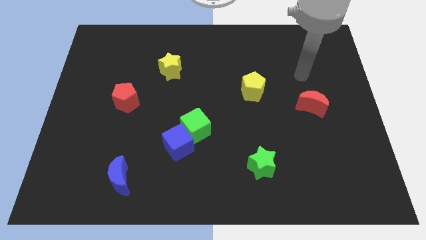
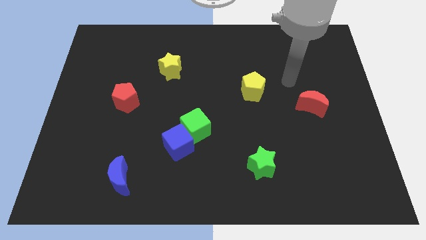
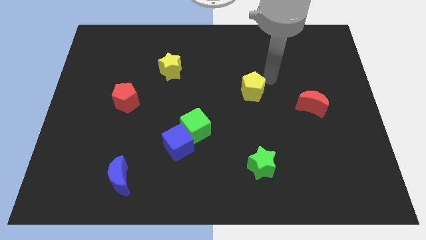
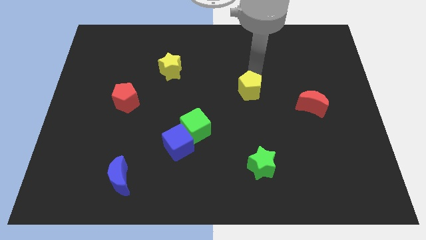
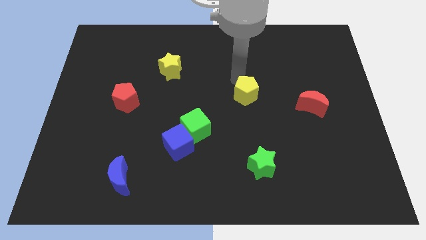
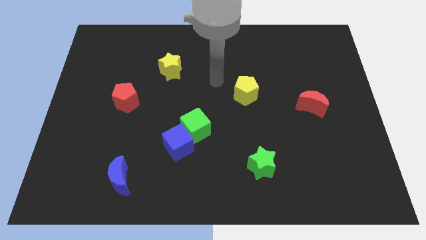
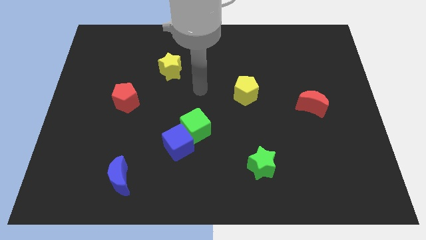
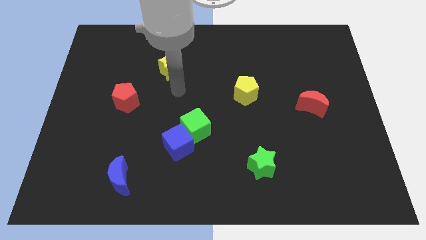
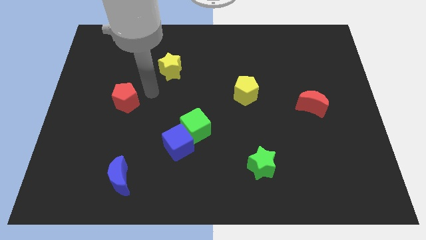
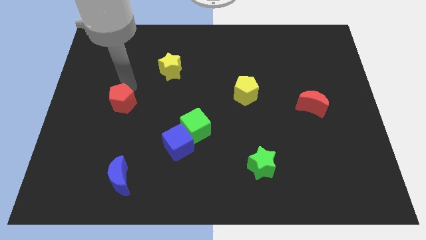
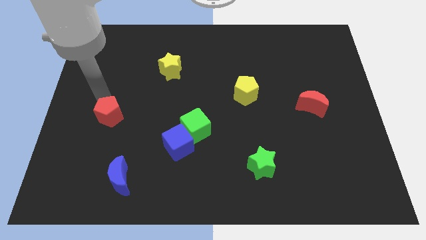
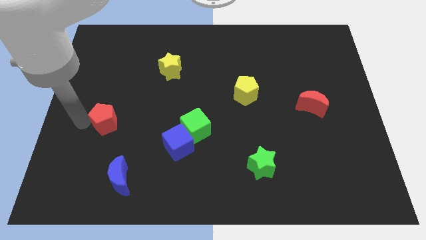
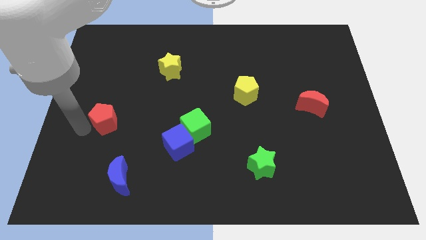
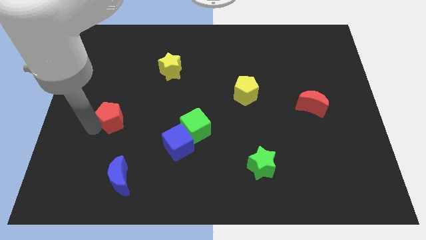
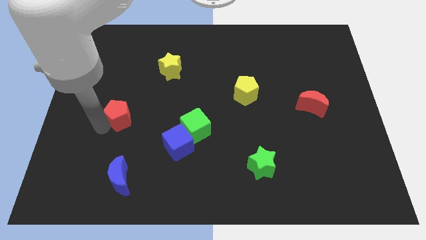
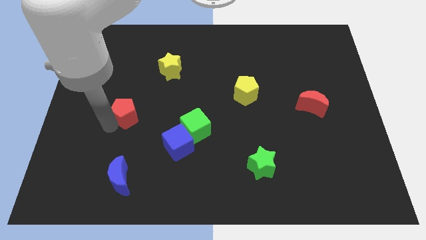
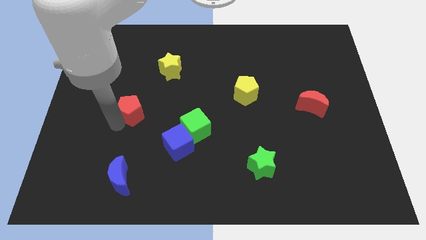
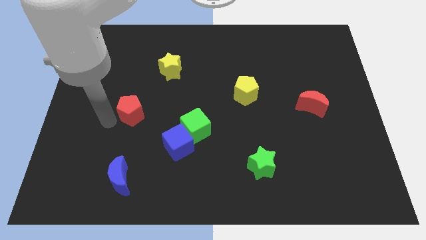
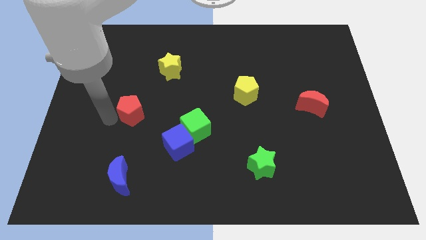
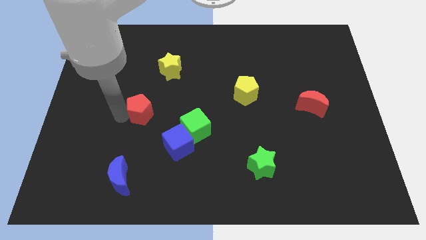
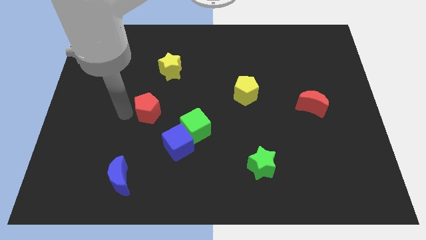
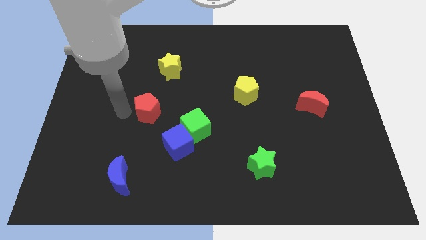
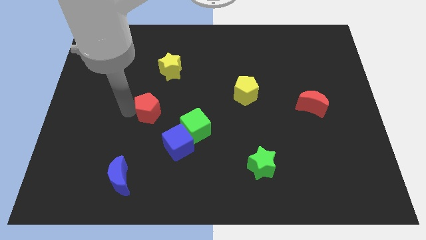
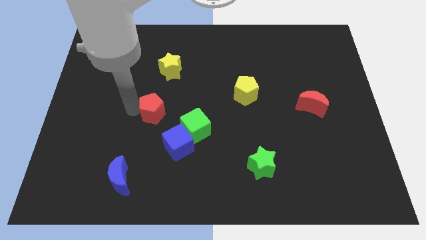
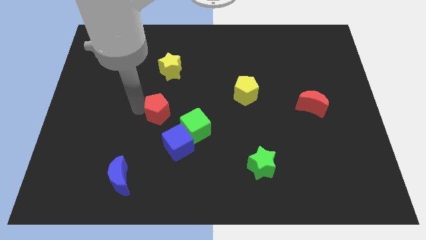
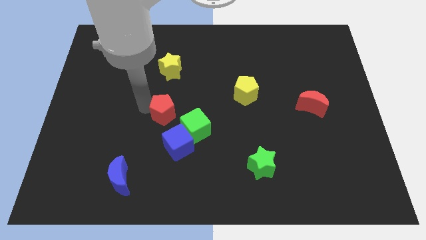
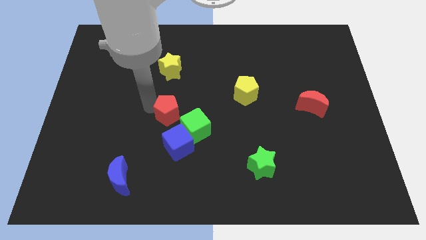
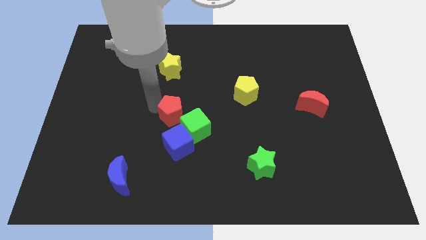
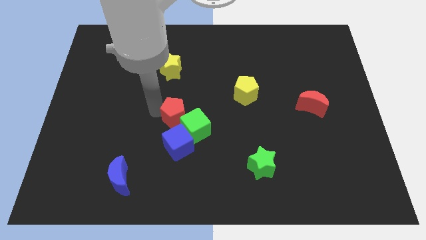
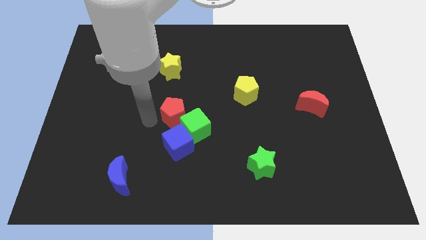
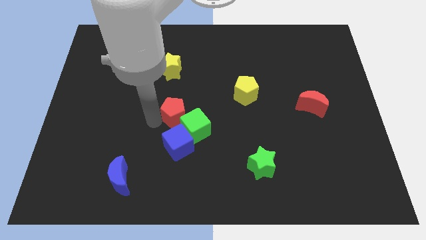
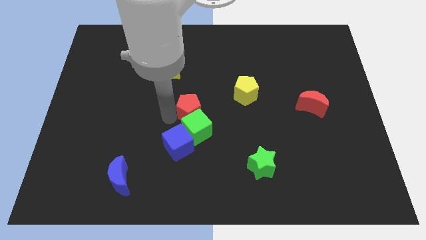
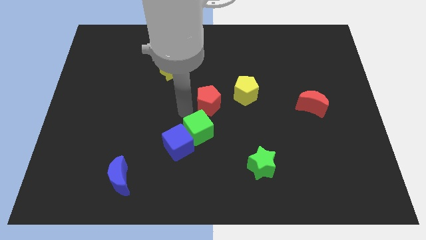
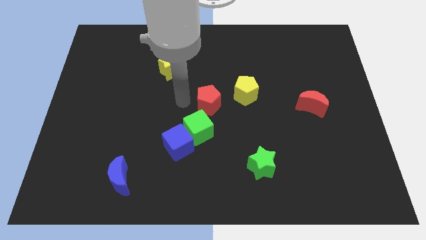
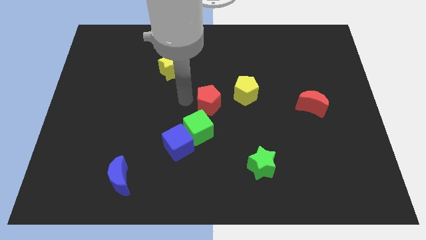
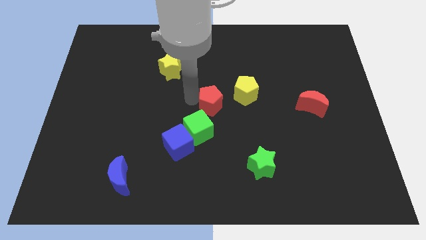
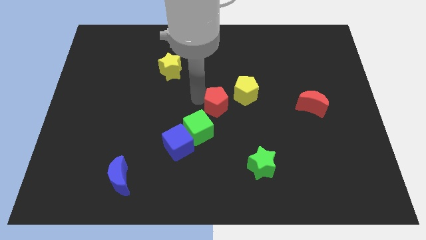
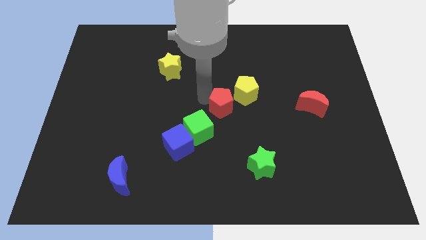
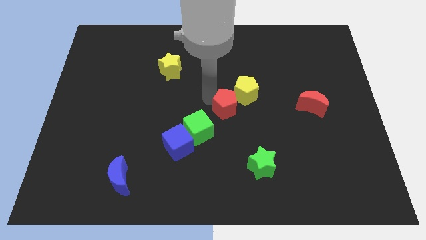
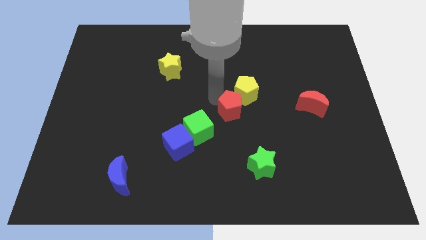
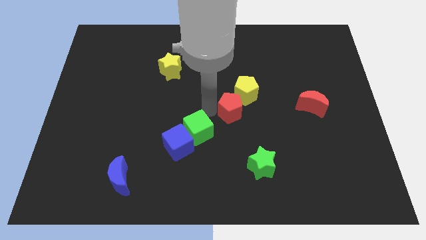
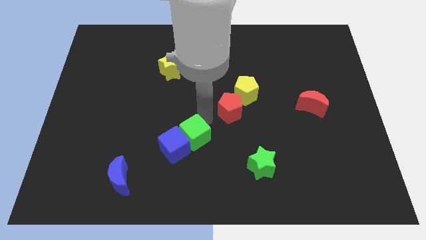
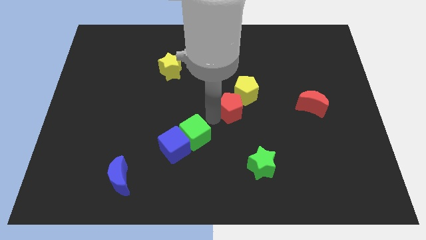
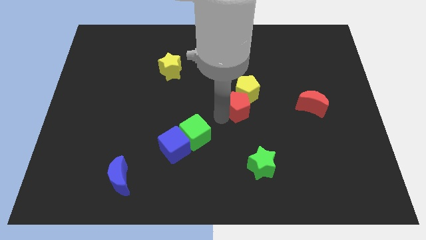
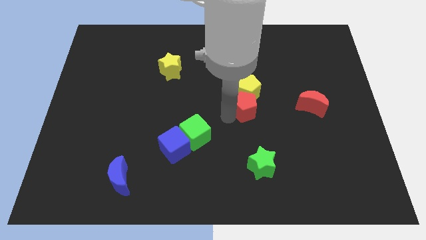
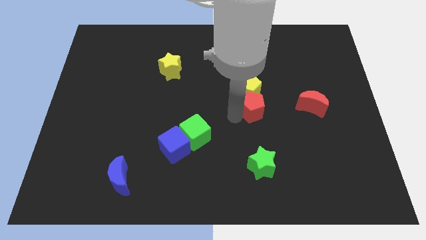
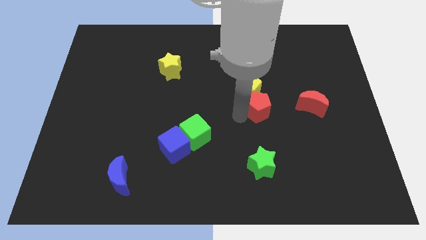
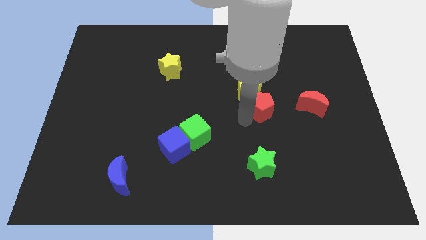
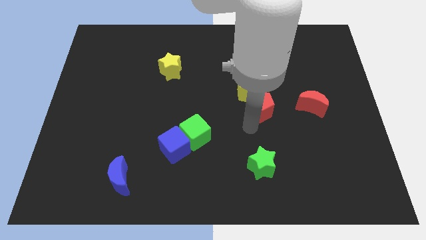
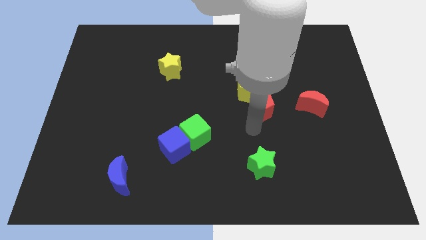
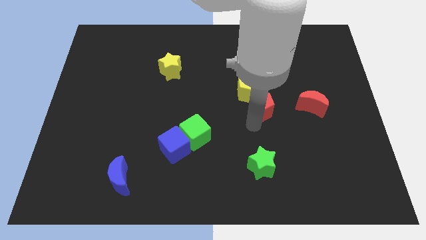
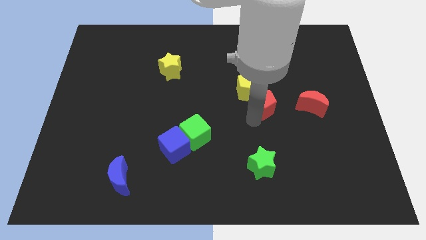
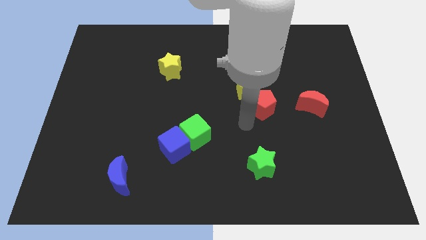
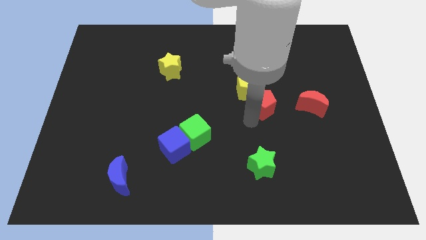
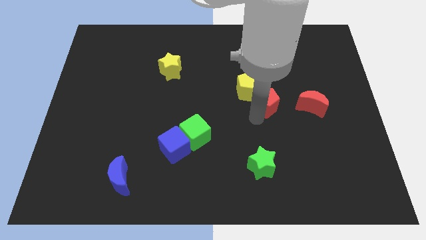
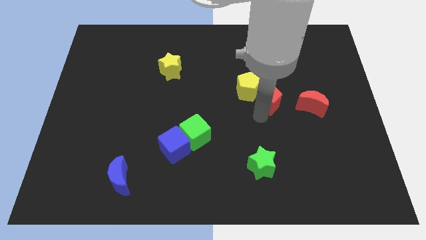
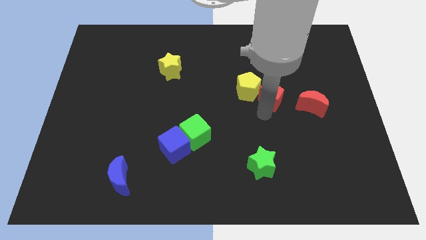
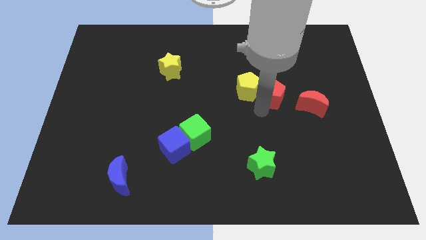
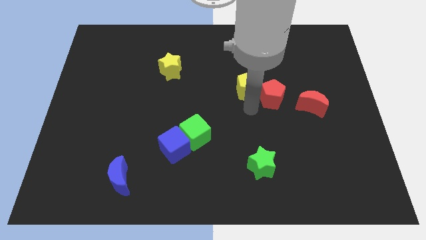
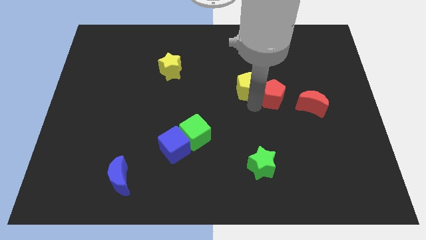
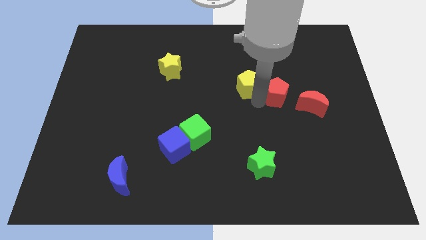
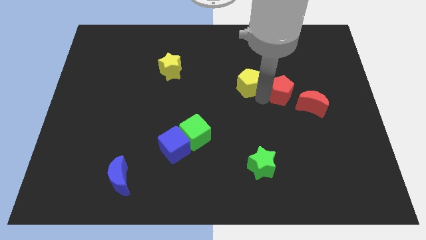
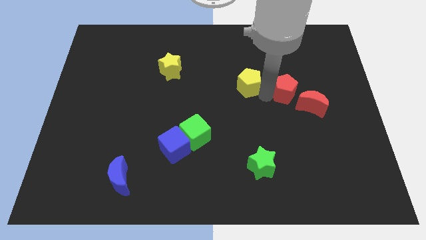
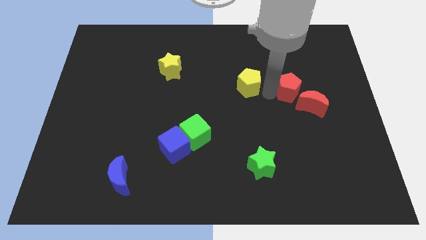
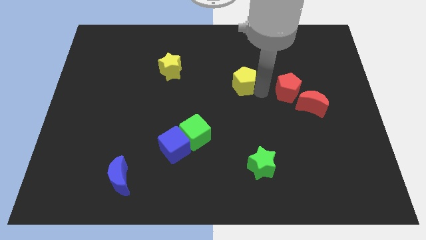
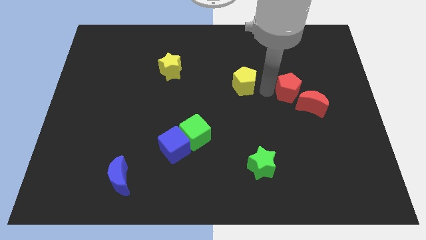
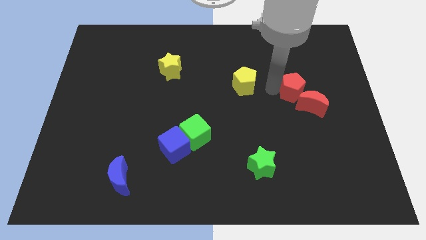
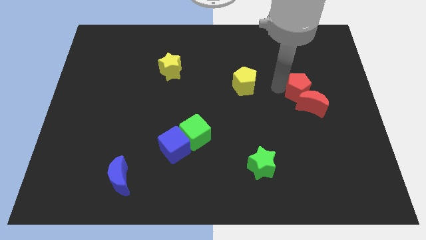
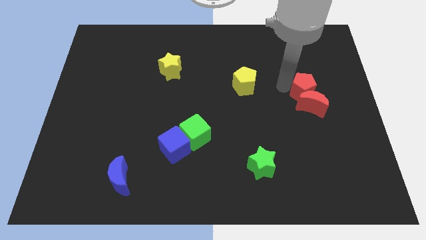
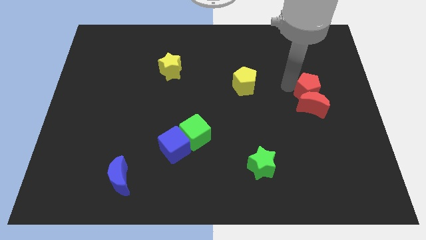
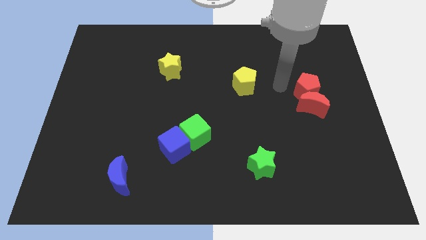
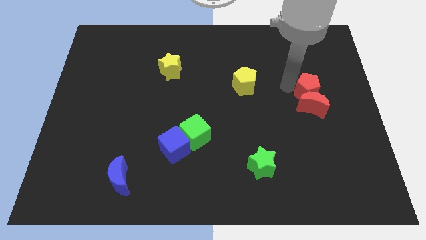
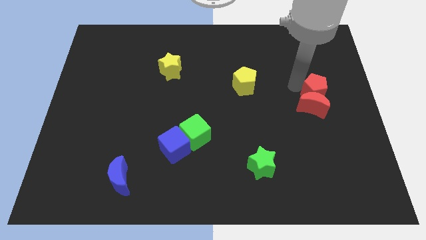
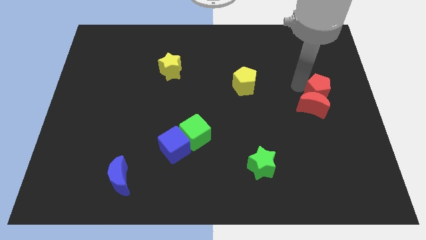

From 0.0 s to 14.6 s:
push the red pentagon to the center right
